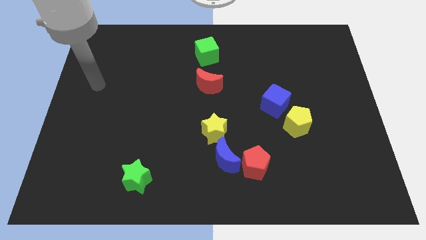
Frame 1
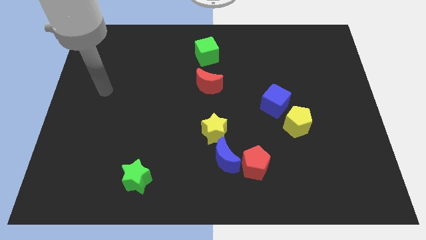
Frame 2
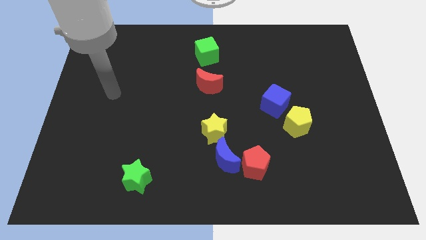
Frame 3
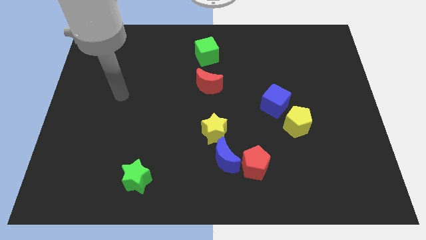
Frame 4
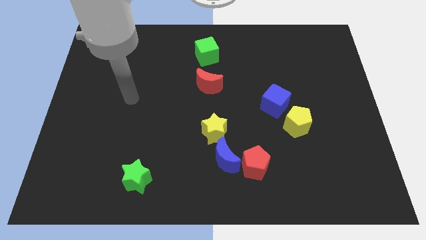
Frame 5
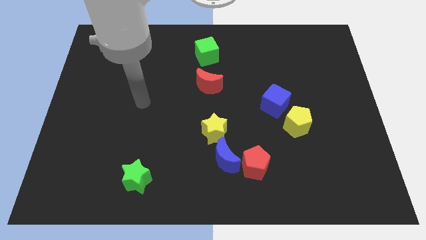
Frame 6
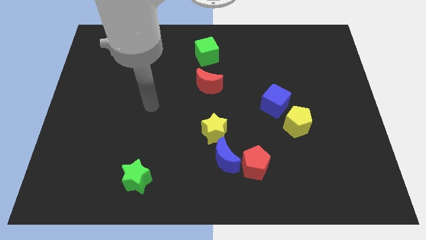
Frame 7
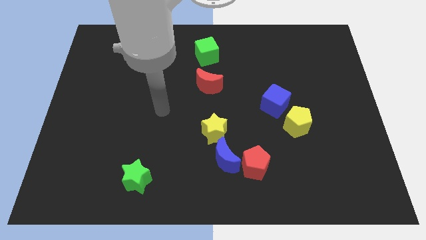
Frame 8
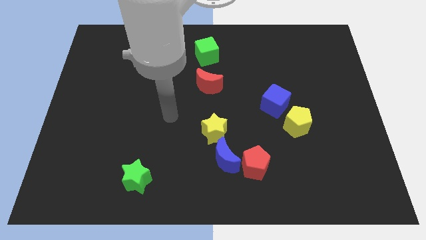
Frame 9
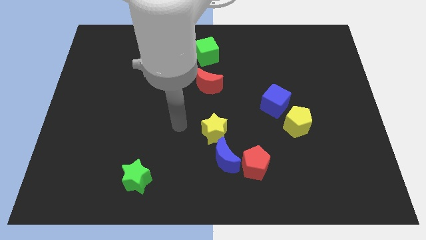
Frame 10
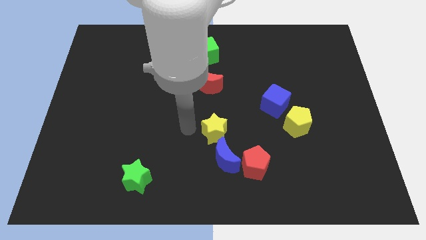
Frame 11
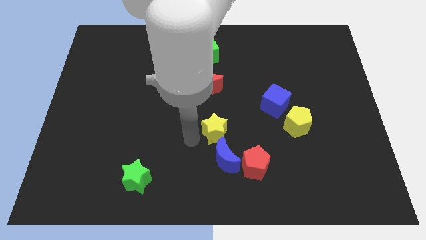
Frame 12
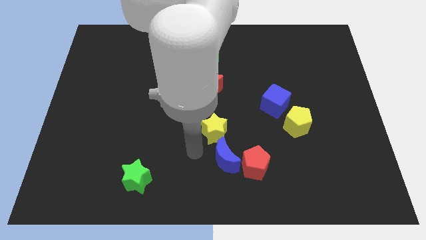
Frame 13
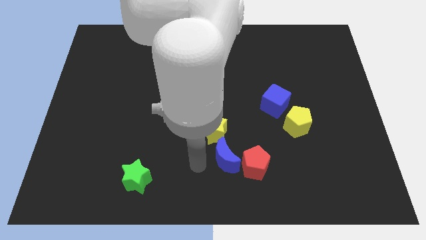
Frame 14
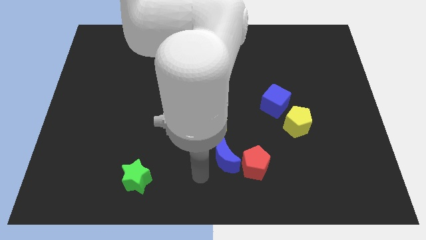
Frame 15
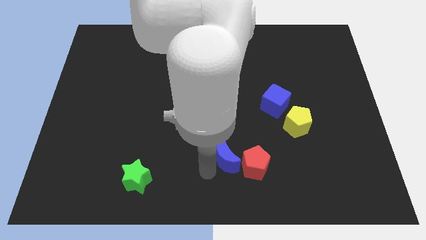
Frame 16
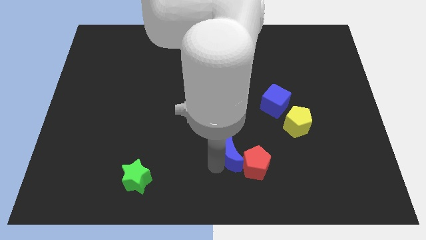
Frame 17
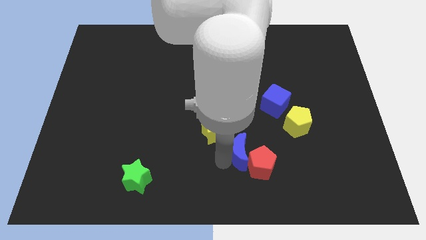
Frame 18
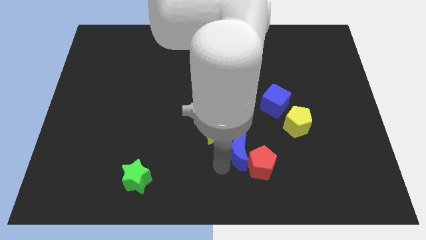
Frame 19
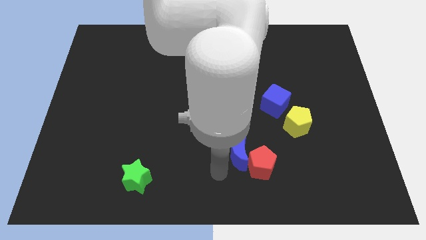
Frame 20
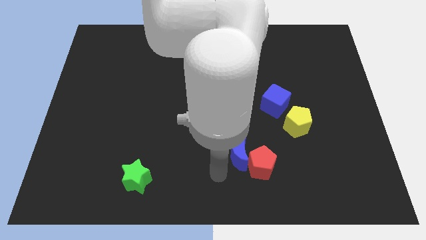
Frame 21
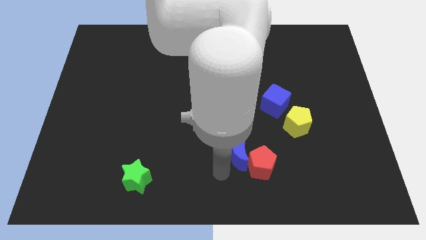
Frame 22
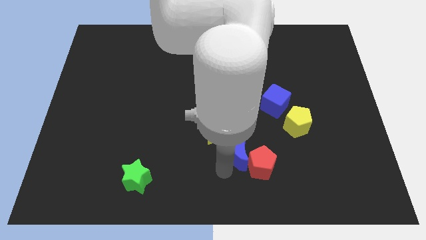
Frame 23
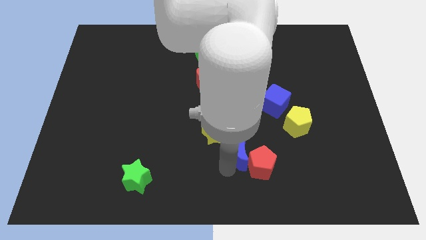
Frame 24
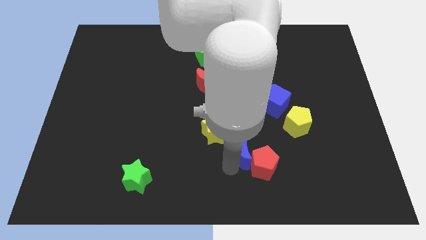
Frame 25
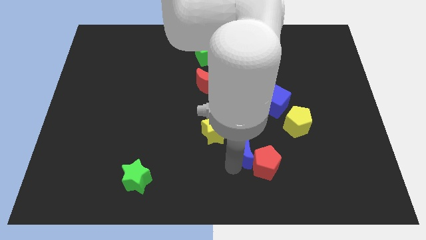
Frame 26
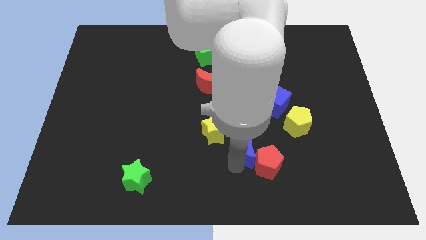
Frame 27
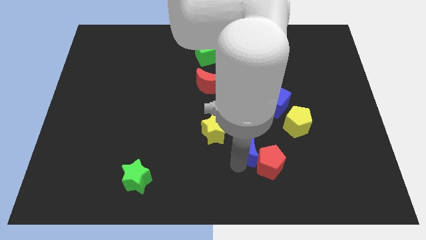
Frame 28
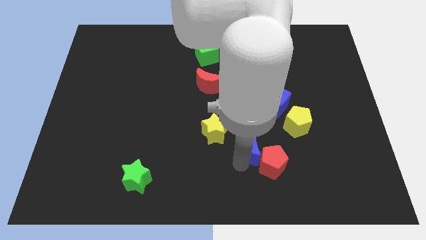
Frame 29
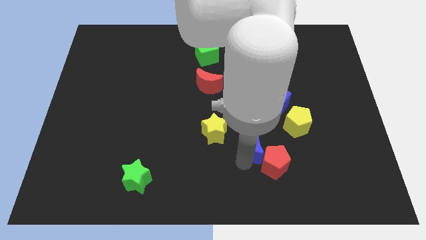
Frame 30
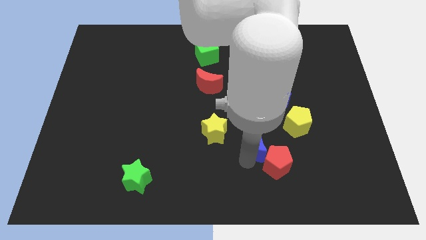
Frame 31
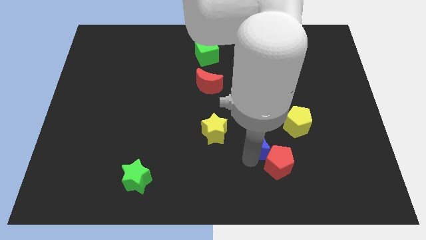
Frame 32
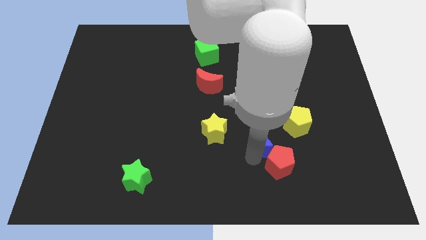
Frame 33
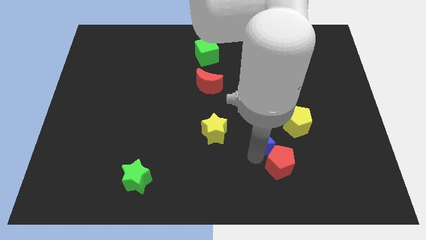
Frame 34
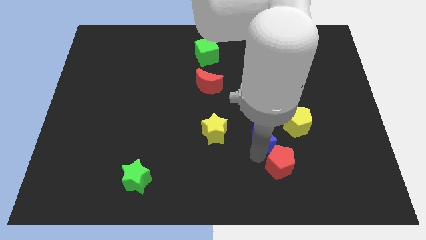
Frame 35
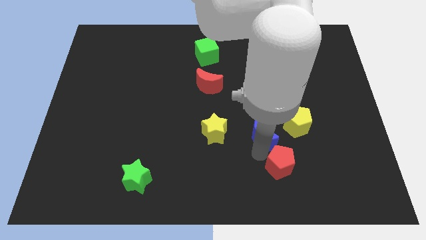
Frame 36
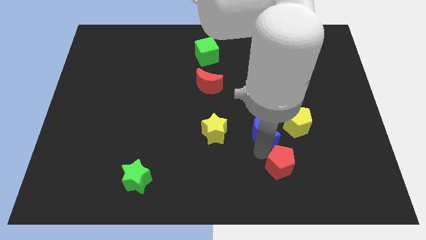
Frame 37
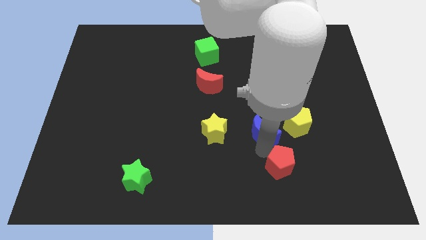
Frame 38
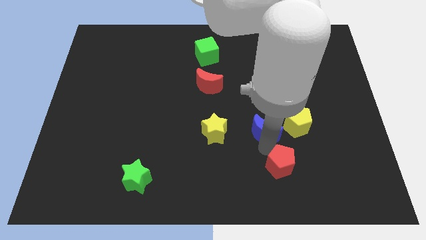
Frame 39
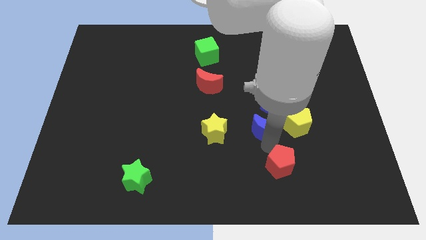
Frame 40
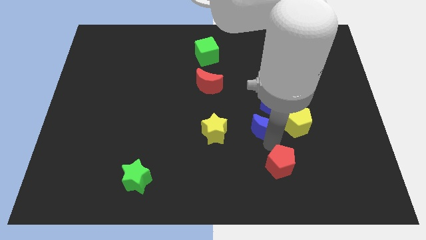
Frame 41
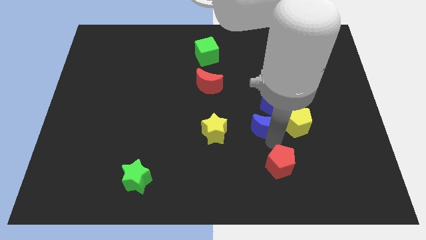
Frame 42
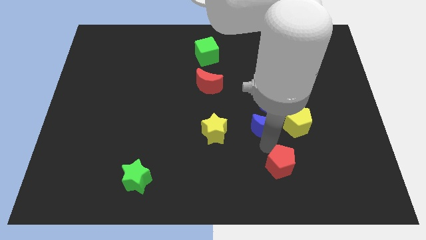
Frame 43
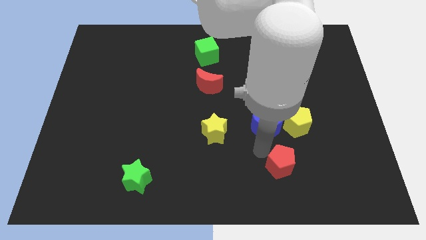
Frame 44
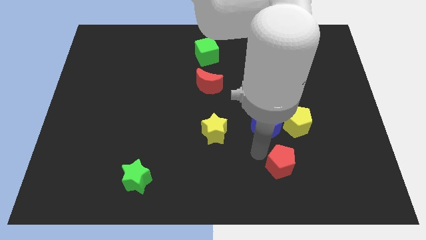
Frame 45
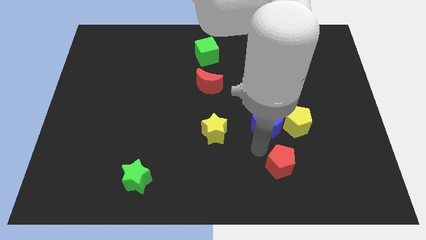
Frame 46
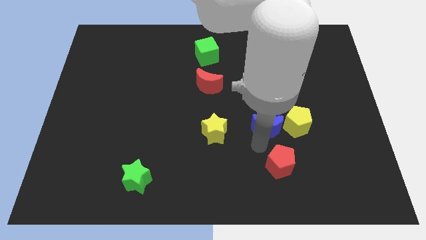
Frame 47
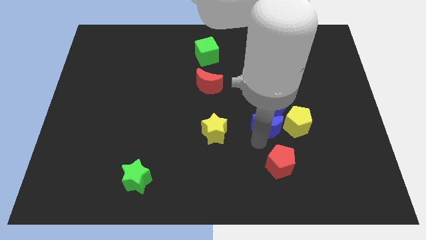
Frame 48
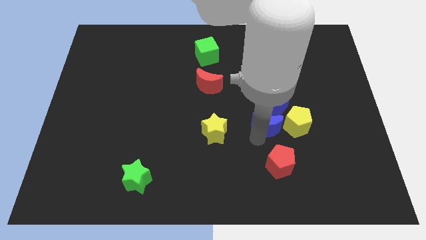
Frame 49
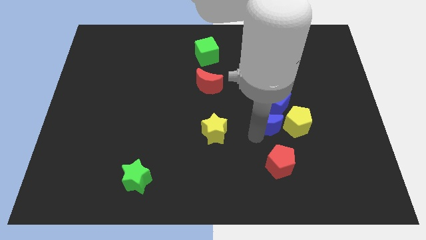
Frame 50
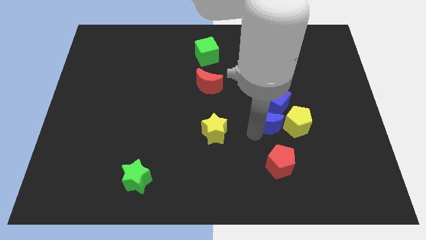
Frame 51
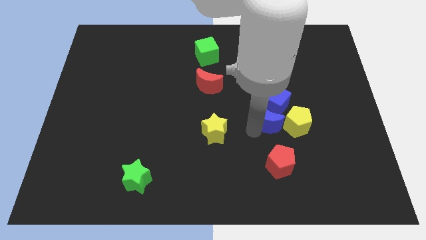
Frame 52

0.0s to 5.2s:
slide the blue moon next to the blue cube

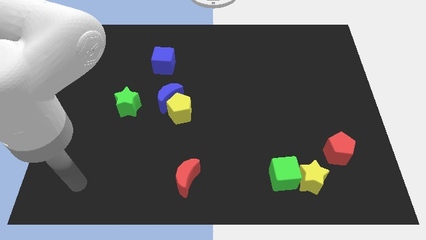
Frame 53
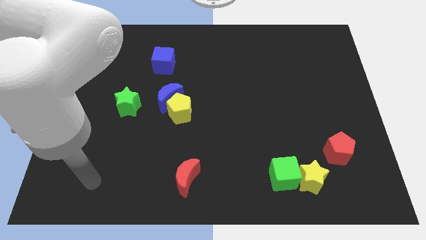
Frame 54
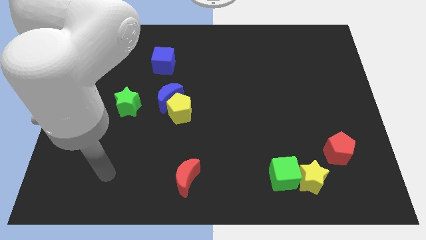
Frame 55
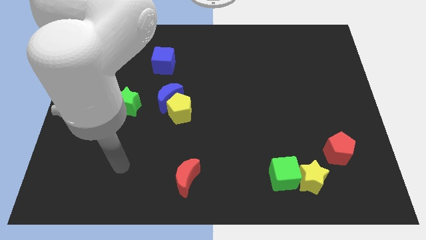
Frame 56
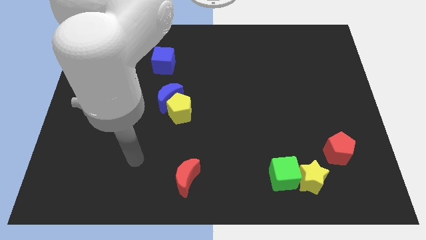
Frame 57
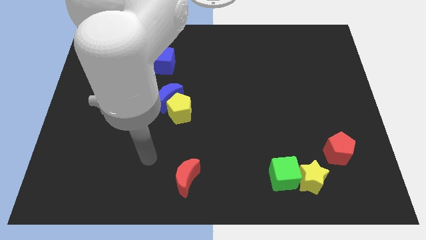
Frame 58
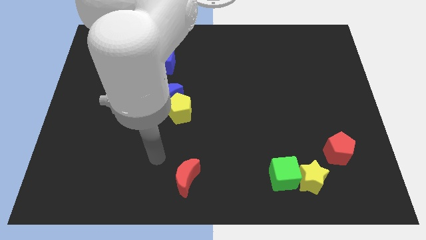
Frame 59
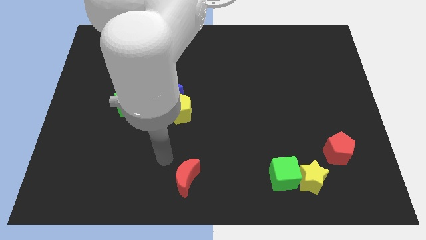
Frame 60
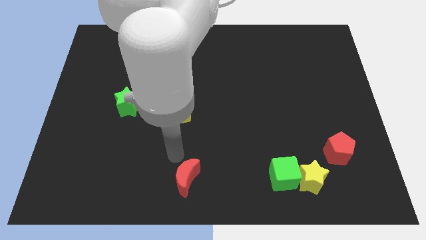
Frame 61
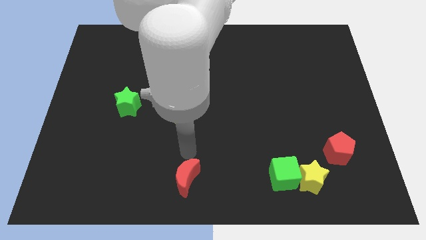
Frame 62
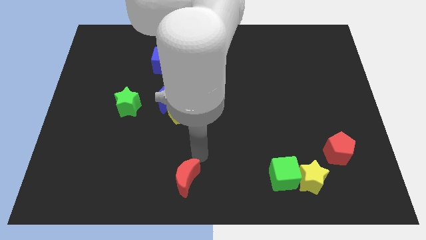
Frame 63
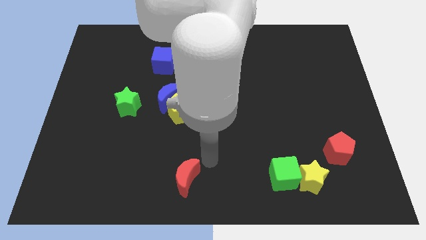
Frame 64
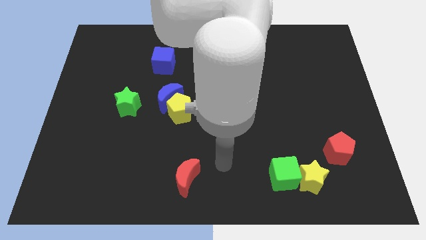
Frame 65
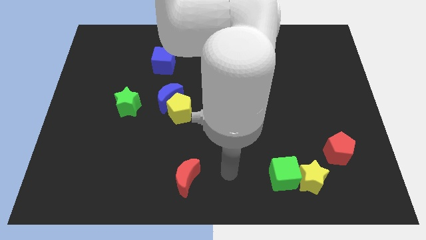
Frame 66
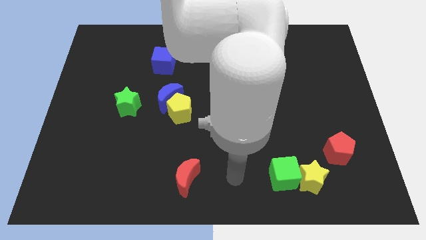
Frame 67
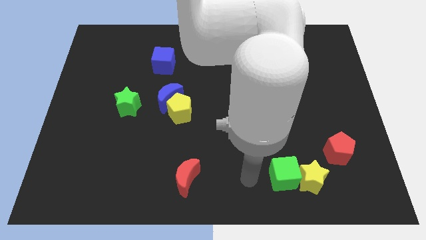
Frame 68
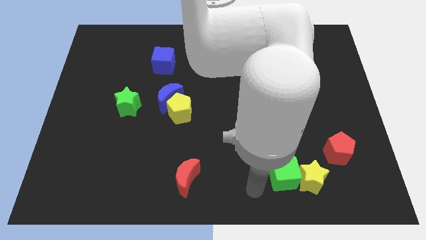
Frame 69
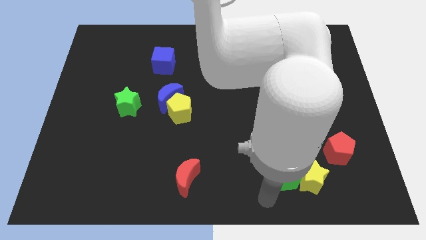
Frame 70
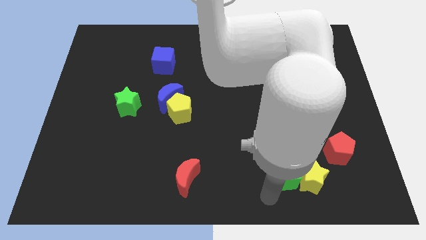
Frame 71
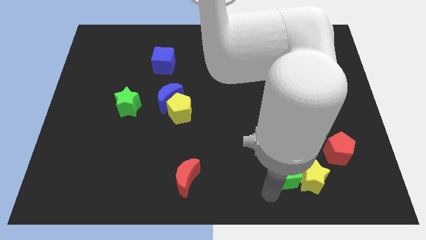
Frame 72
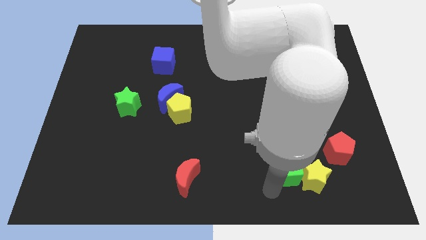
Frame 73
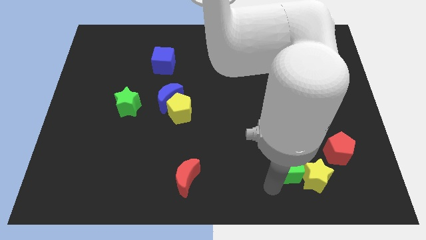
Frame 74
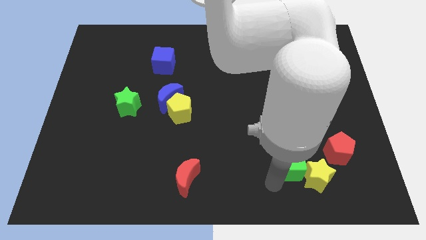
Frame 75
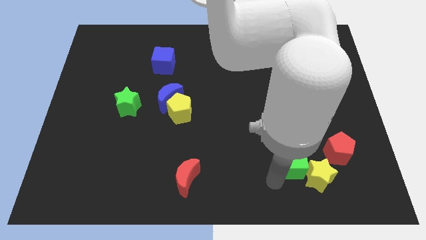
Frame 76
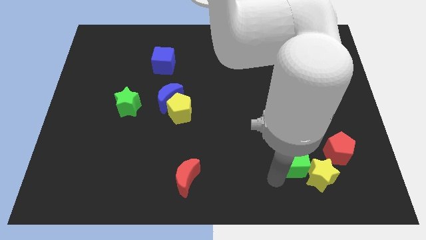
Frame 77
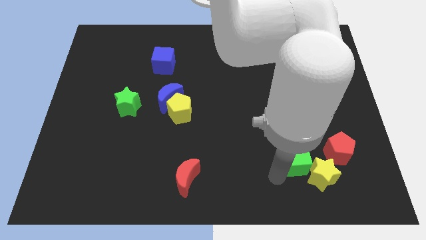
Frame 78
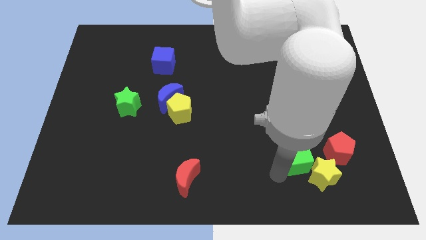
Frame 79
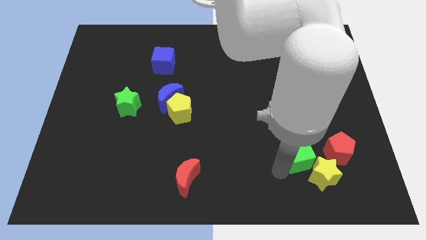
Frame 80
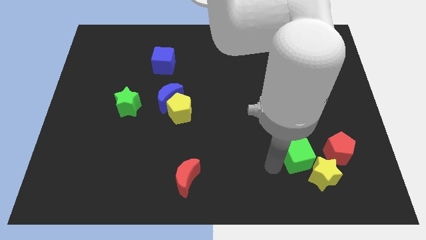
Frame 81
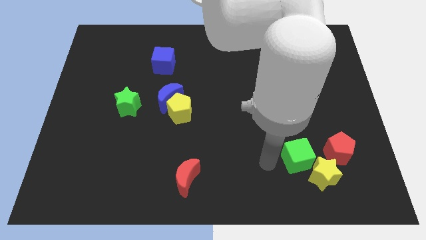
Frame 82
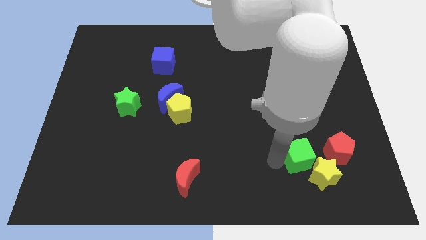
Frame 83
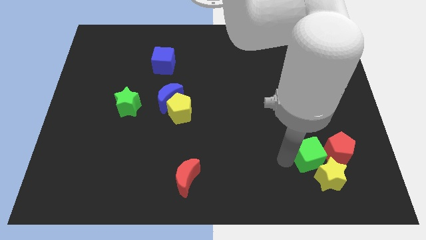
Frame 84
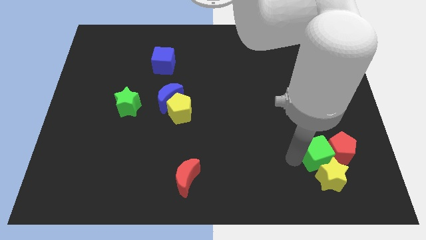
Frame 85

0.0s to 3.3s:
slide the green cube to the red pentagon
